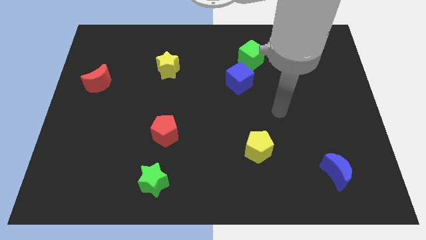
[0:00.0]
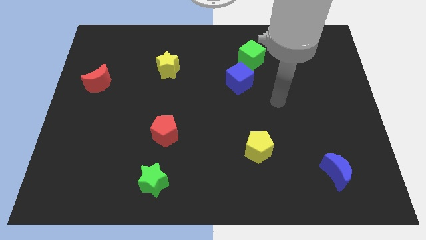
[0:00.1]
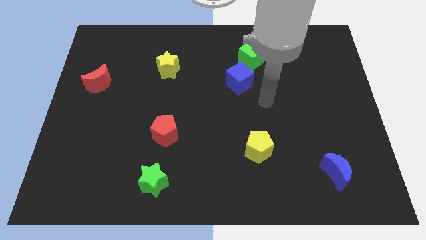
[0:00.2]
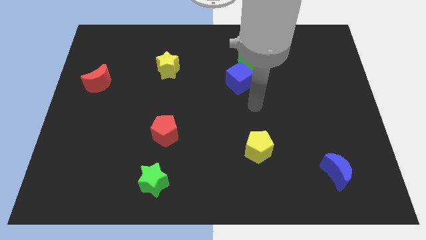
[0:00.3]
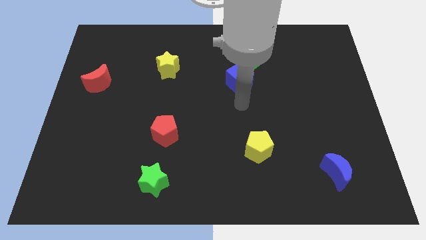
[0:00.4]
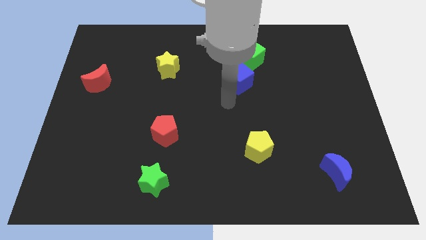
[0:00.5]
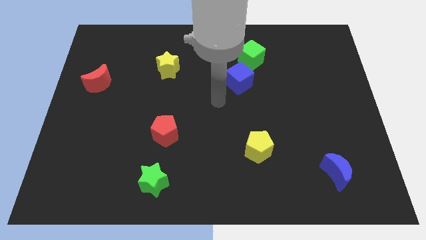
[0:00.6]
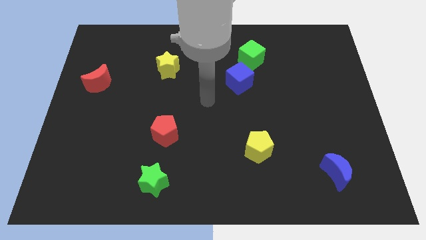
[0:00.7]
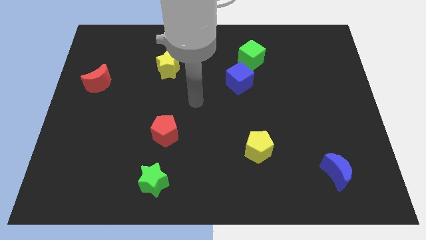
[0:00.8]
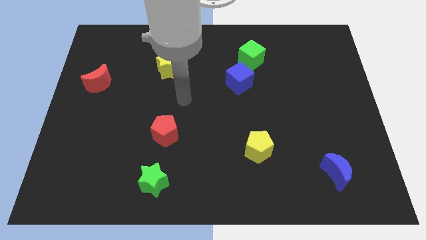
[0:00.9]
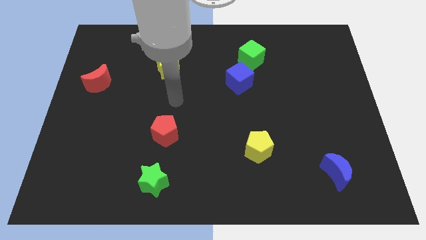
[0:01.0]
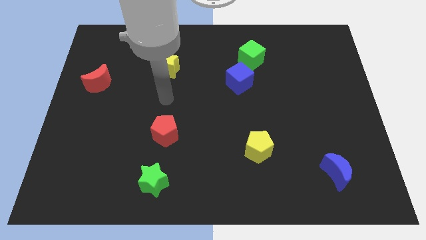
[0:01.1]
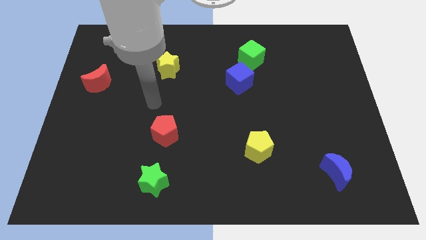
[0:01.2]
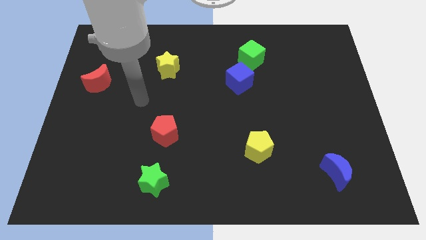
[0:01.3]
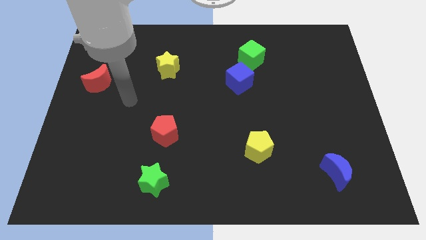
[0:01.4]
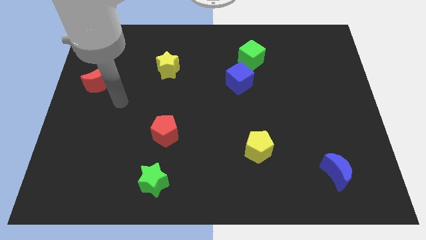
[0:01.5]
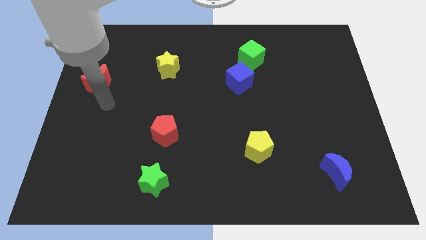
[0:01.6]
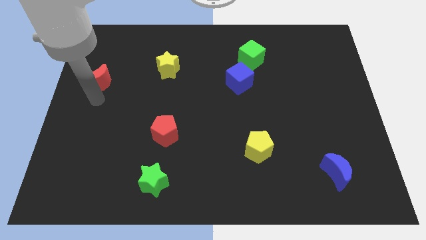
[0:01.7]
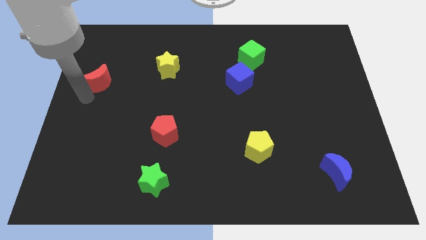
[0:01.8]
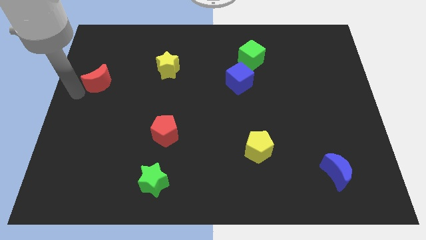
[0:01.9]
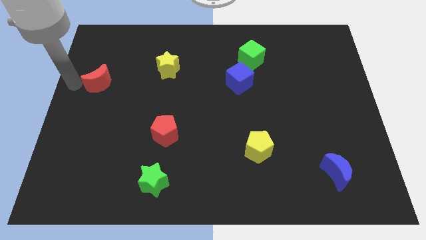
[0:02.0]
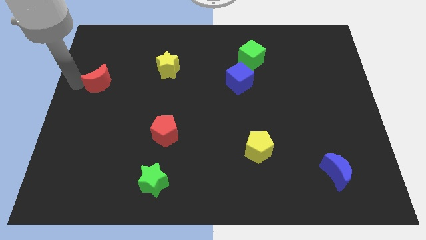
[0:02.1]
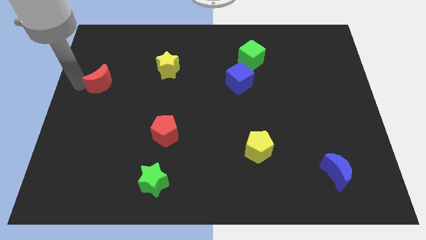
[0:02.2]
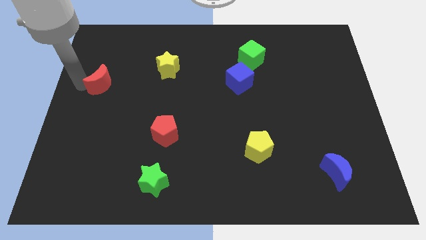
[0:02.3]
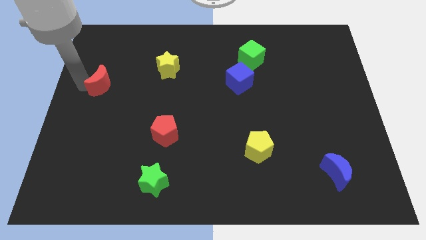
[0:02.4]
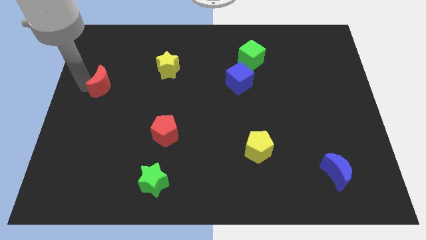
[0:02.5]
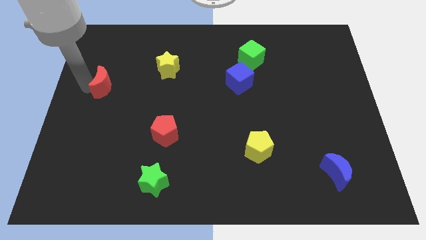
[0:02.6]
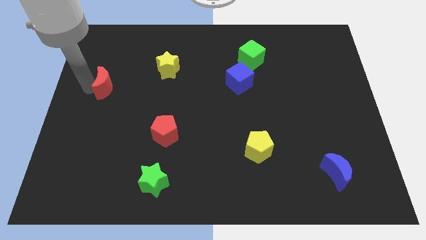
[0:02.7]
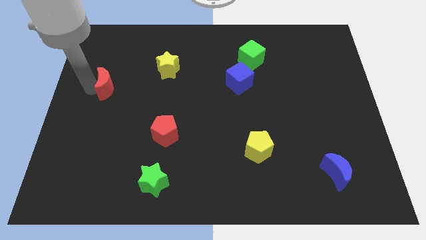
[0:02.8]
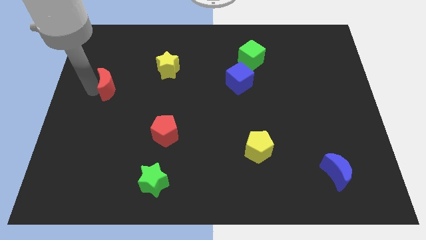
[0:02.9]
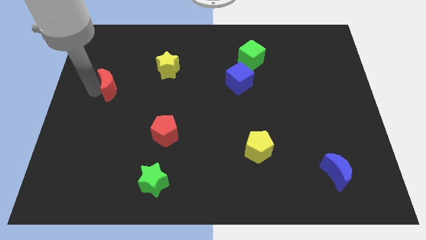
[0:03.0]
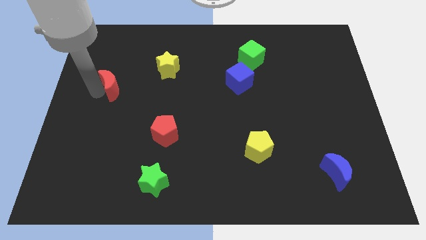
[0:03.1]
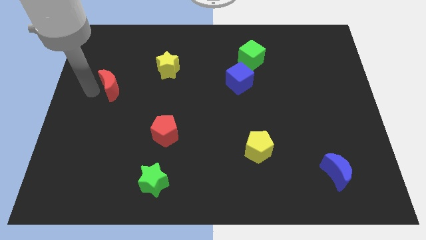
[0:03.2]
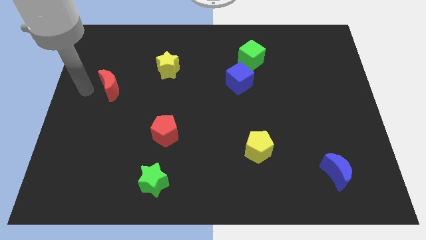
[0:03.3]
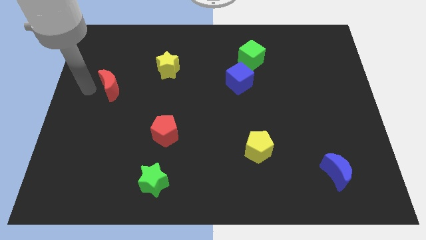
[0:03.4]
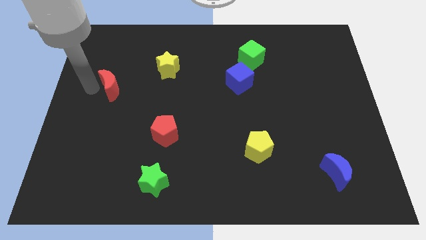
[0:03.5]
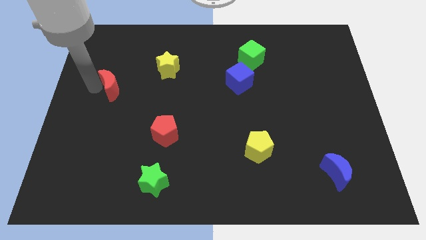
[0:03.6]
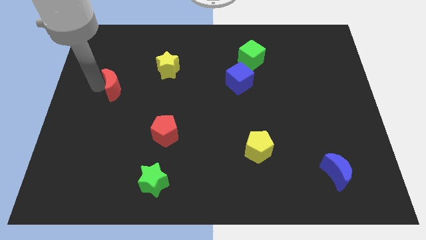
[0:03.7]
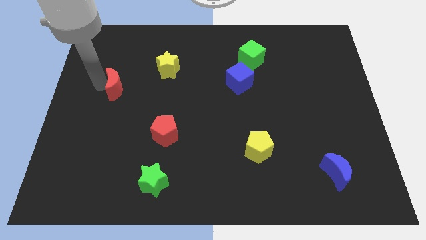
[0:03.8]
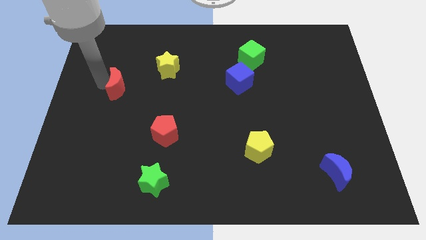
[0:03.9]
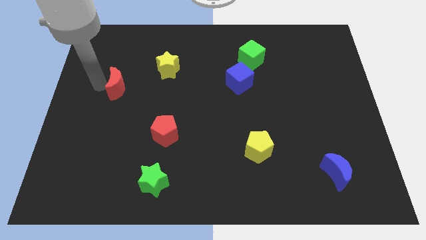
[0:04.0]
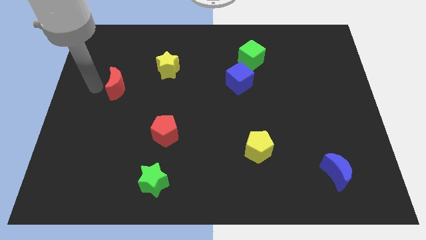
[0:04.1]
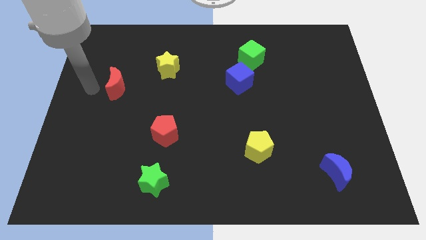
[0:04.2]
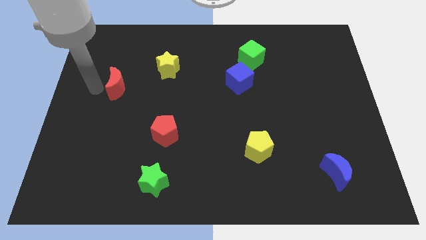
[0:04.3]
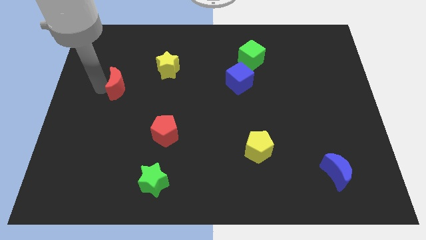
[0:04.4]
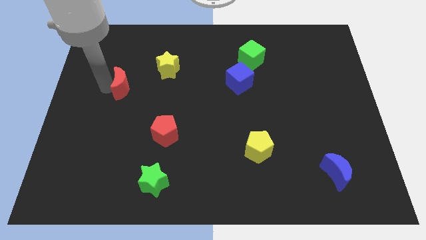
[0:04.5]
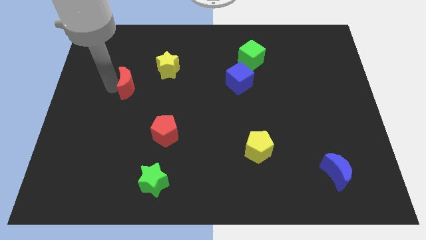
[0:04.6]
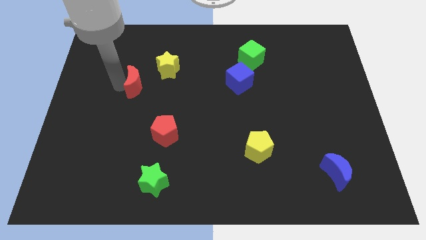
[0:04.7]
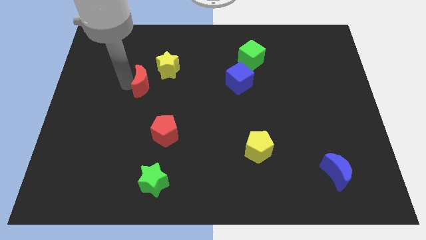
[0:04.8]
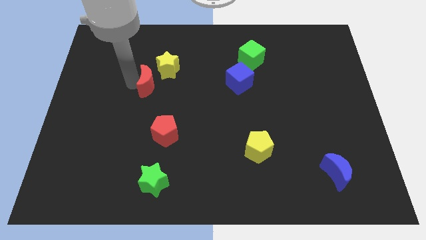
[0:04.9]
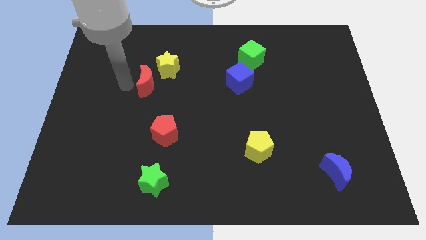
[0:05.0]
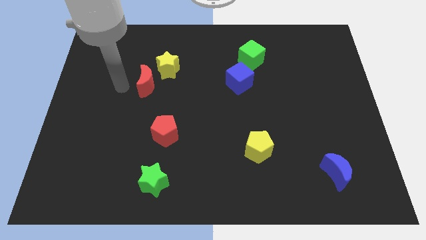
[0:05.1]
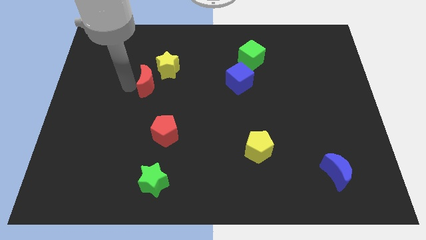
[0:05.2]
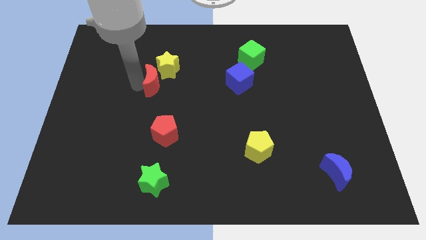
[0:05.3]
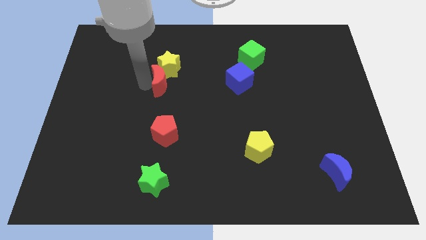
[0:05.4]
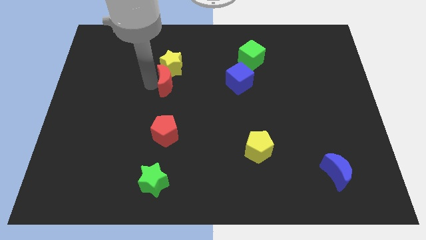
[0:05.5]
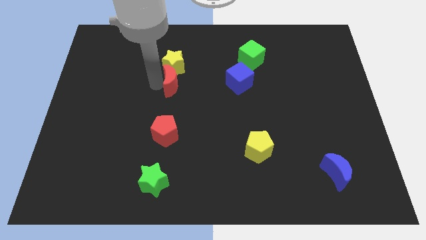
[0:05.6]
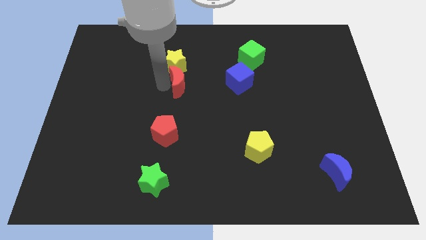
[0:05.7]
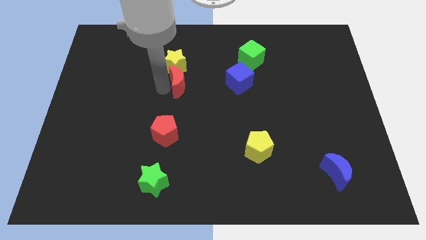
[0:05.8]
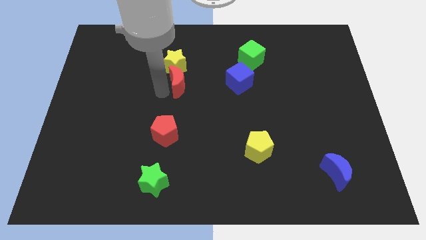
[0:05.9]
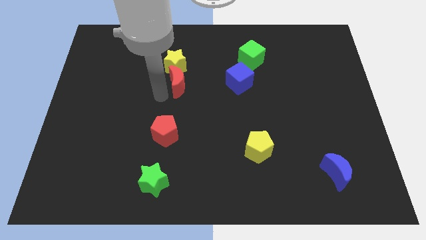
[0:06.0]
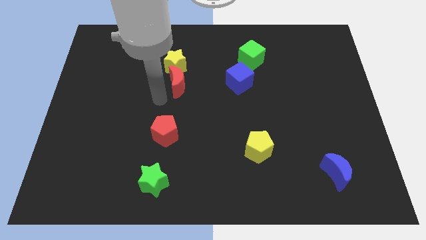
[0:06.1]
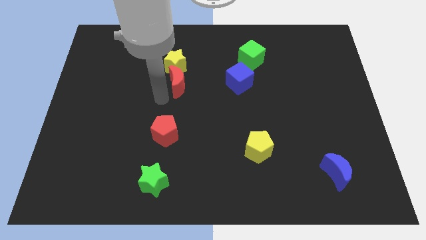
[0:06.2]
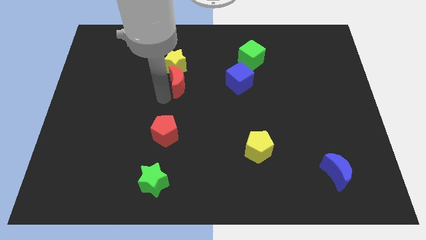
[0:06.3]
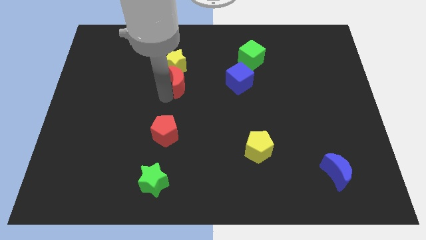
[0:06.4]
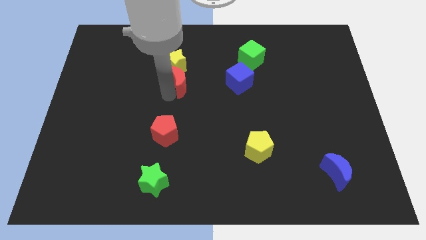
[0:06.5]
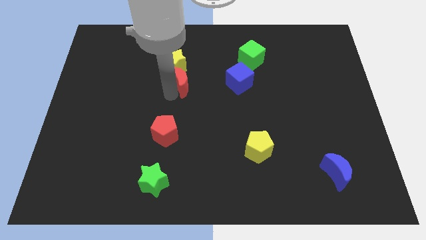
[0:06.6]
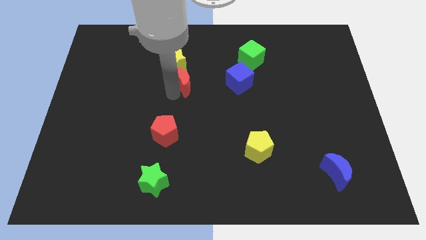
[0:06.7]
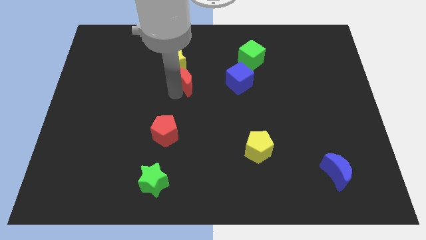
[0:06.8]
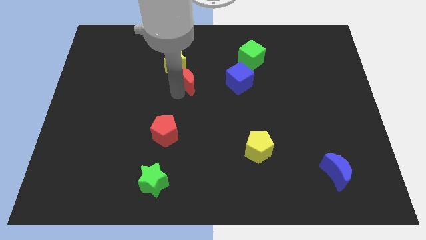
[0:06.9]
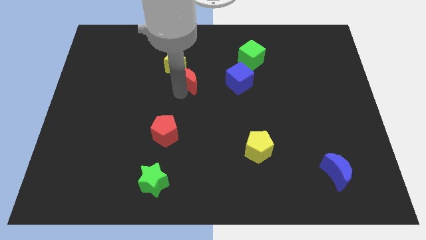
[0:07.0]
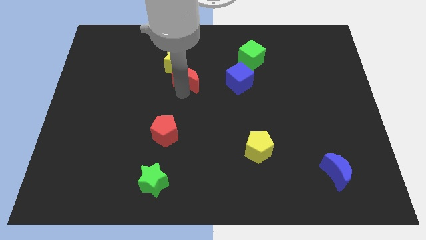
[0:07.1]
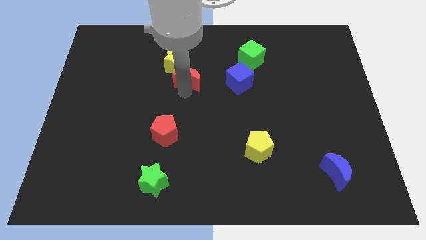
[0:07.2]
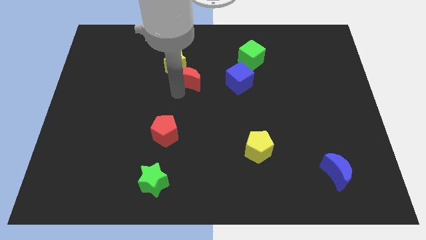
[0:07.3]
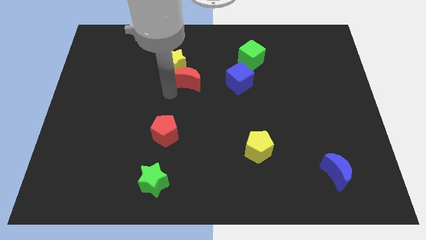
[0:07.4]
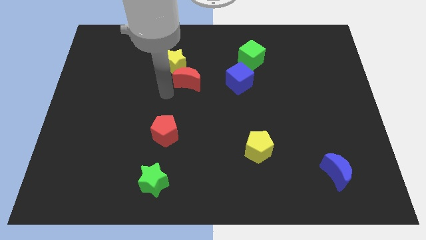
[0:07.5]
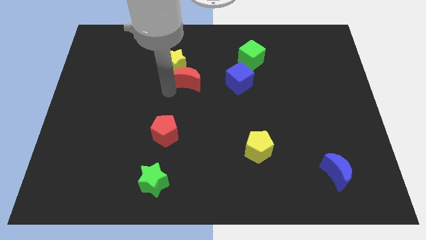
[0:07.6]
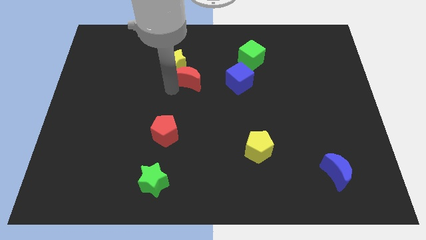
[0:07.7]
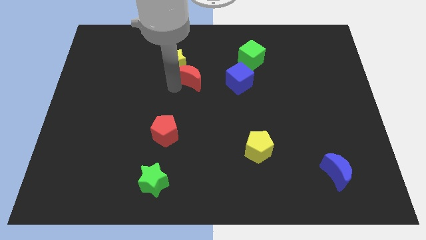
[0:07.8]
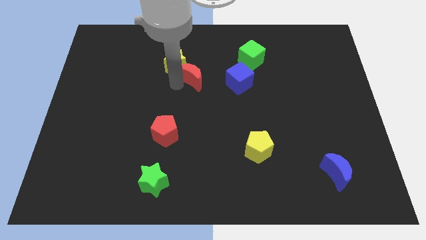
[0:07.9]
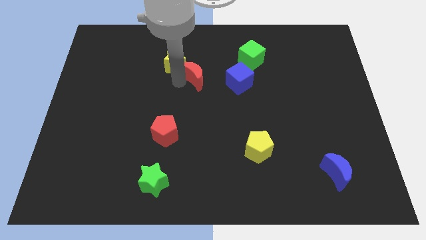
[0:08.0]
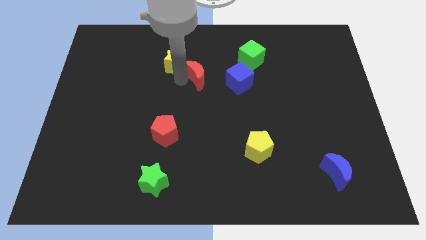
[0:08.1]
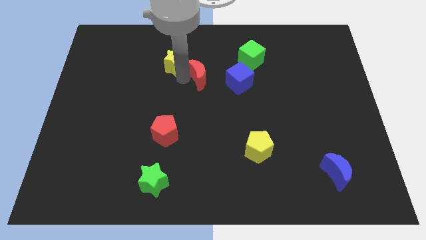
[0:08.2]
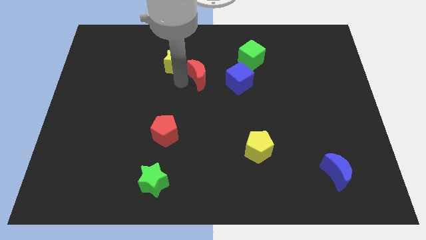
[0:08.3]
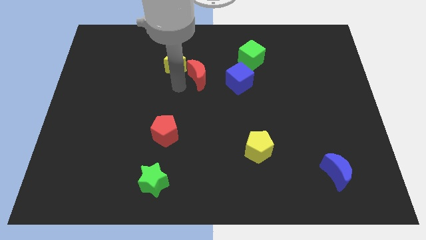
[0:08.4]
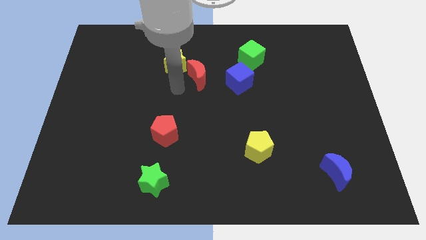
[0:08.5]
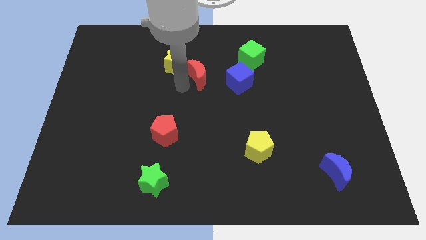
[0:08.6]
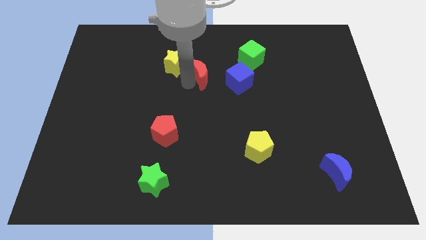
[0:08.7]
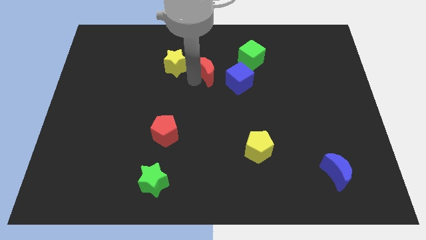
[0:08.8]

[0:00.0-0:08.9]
put the red moon to the top left side of the blue cube
